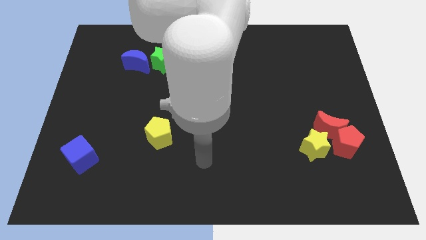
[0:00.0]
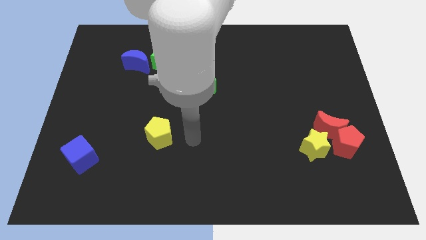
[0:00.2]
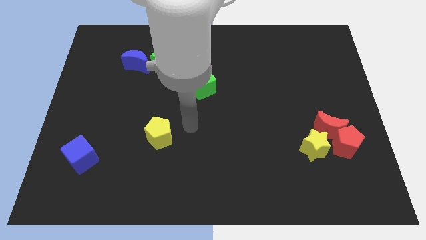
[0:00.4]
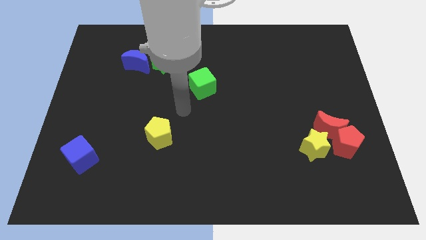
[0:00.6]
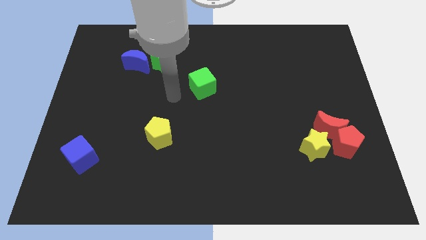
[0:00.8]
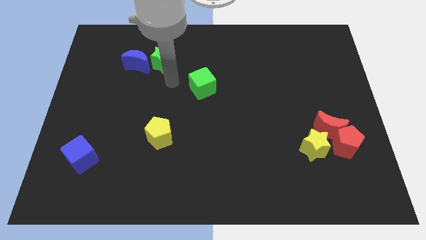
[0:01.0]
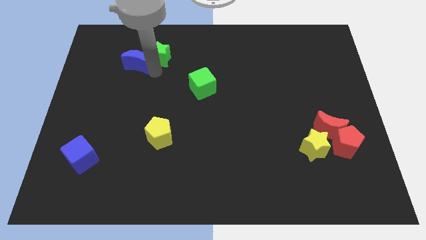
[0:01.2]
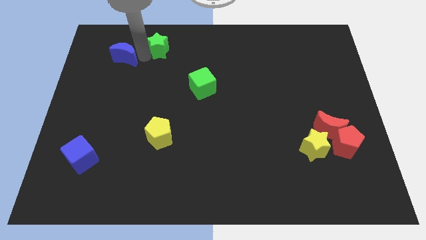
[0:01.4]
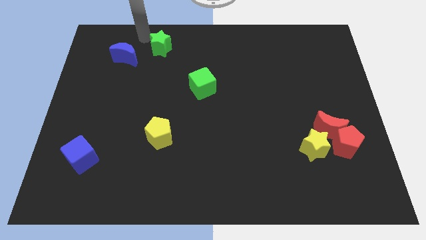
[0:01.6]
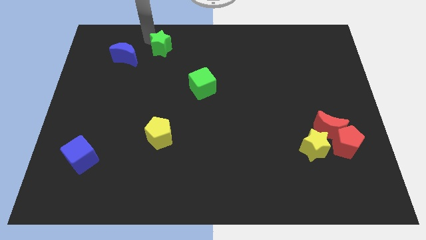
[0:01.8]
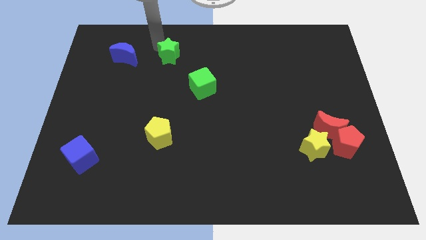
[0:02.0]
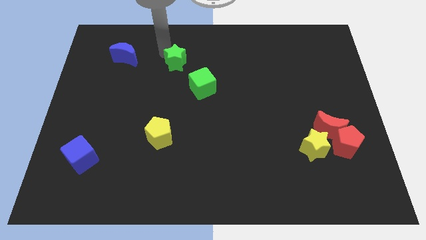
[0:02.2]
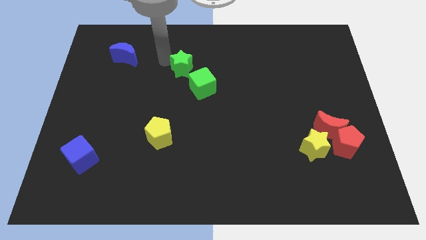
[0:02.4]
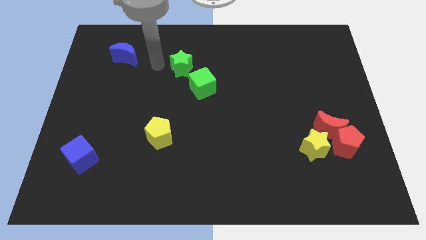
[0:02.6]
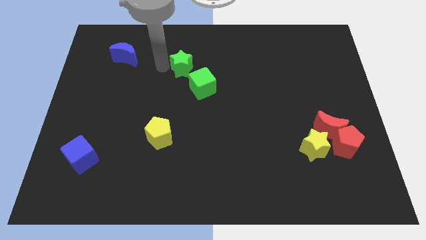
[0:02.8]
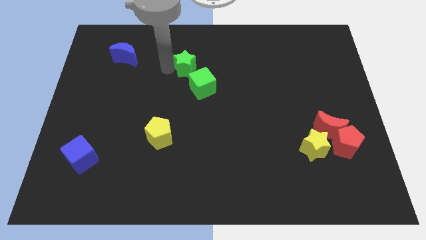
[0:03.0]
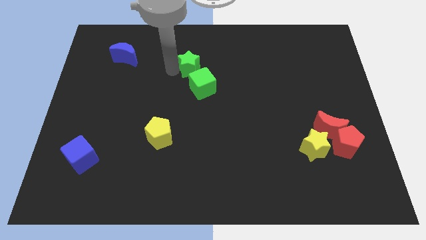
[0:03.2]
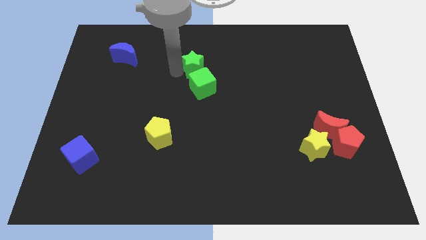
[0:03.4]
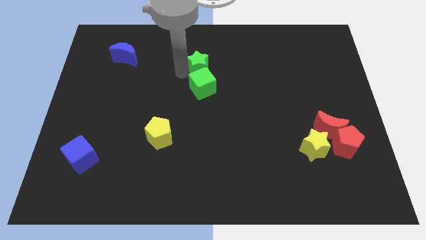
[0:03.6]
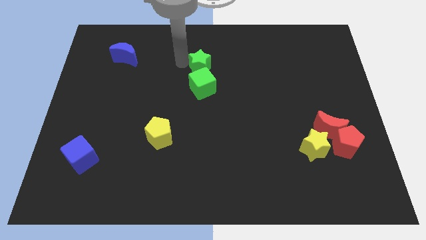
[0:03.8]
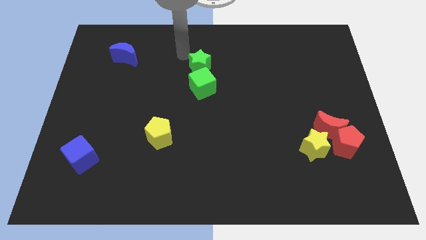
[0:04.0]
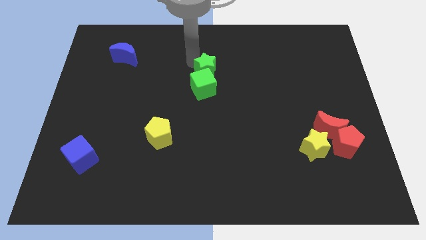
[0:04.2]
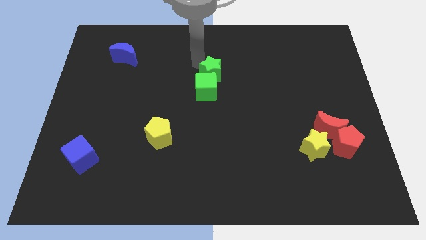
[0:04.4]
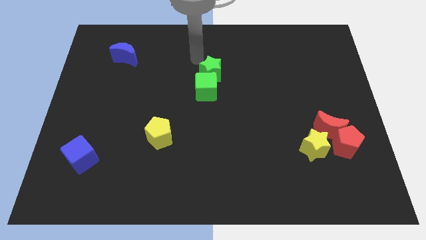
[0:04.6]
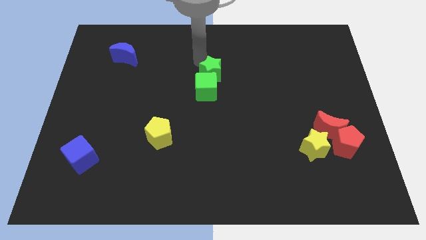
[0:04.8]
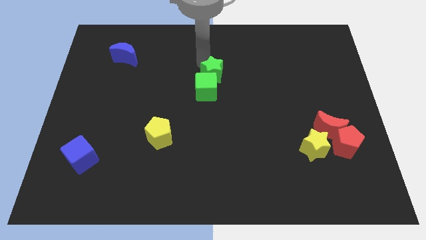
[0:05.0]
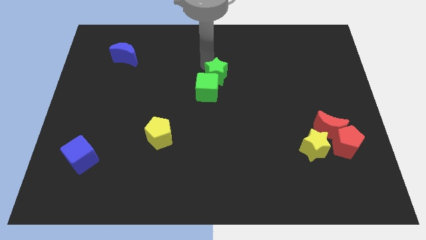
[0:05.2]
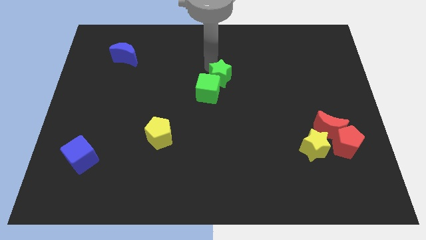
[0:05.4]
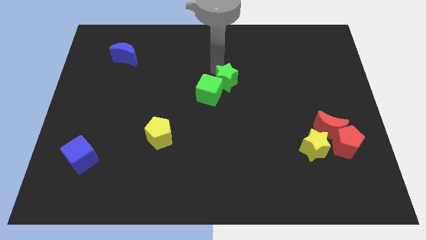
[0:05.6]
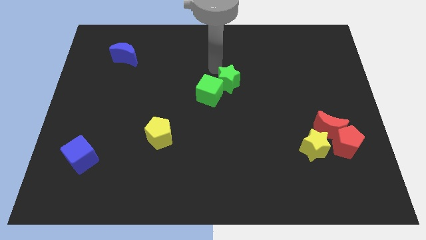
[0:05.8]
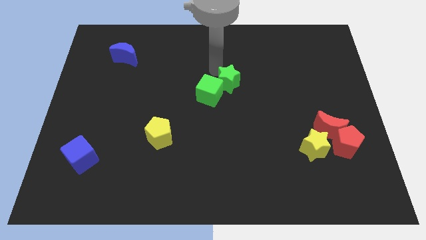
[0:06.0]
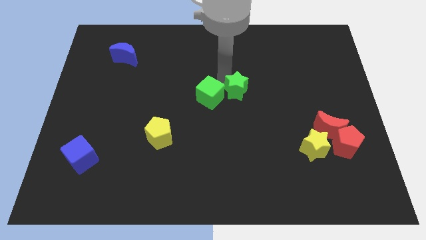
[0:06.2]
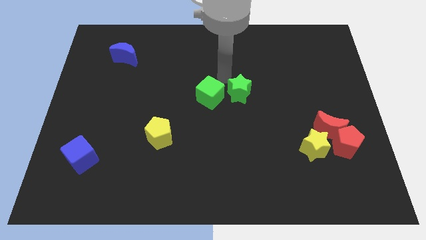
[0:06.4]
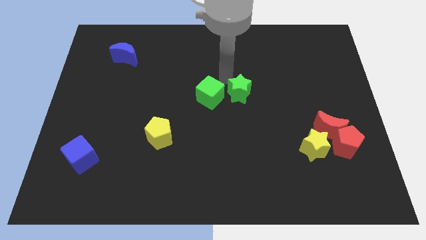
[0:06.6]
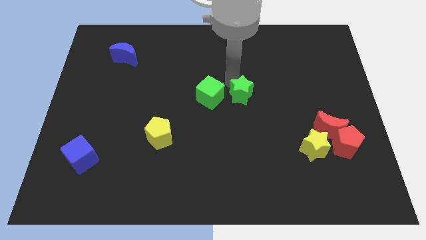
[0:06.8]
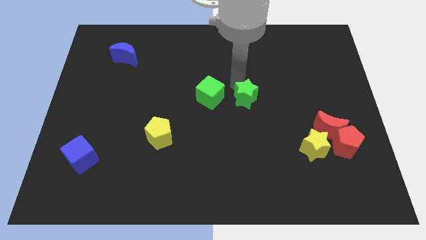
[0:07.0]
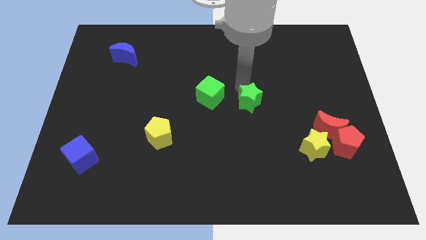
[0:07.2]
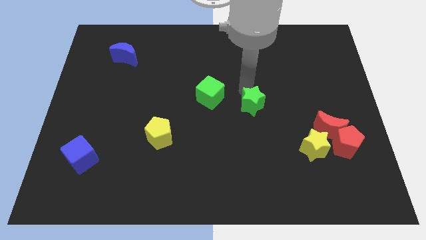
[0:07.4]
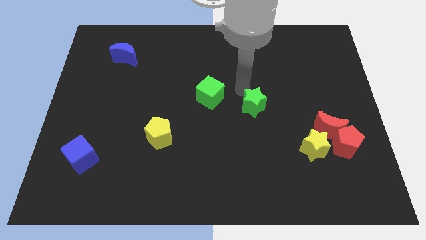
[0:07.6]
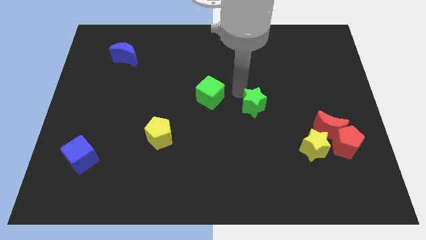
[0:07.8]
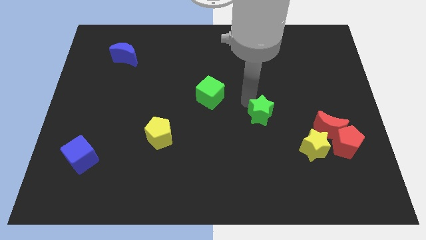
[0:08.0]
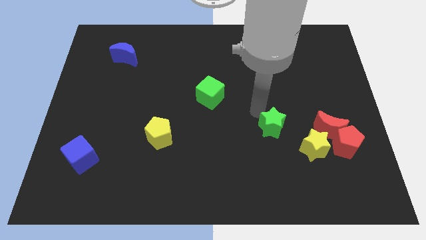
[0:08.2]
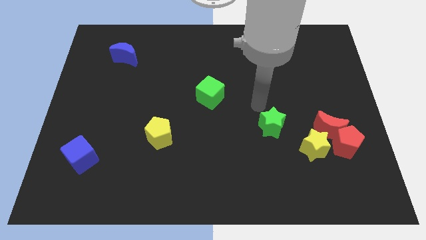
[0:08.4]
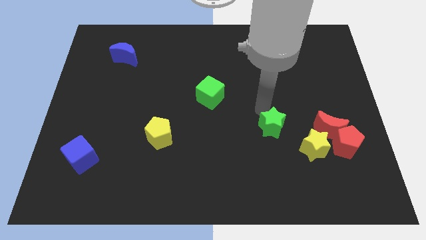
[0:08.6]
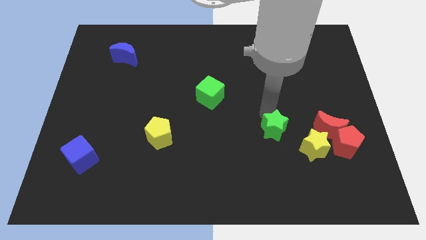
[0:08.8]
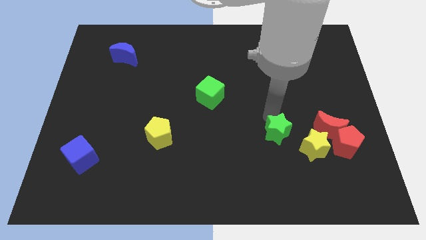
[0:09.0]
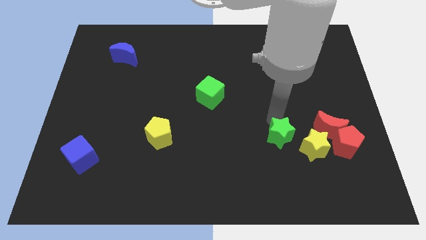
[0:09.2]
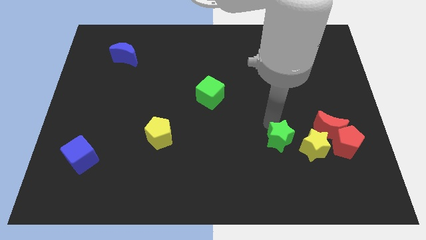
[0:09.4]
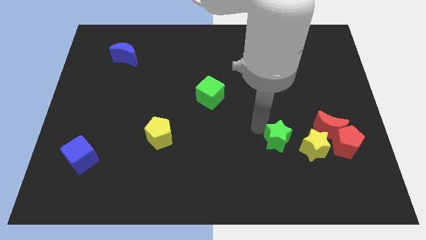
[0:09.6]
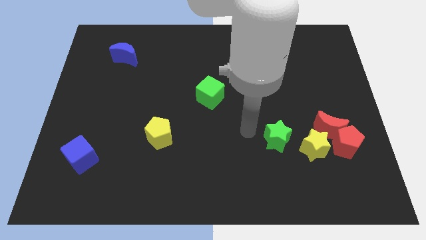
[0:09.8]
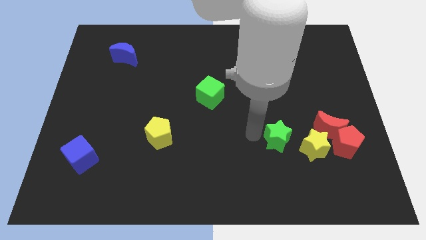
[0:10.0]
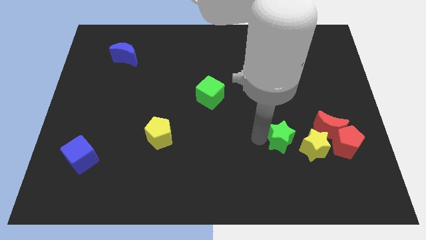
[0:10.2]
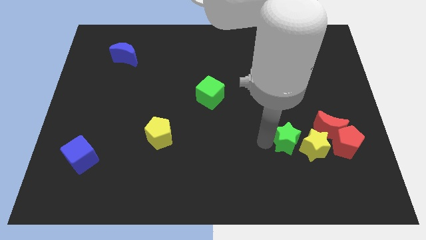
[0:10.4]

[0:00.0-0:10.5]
slide the green star to the bottom left side of the red moon

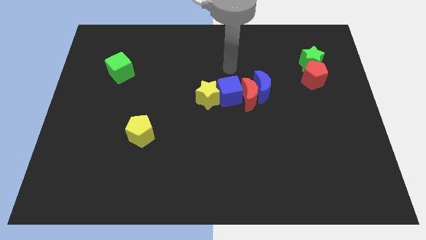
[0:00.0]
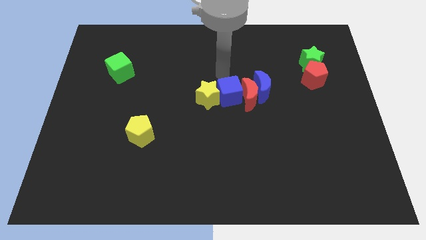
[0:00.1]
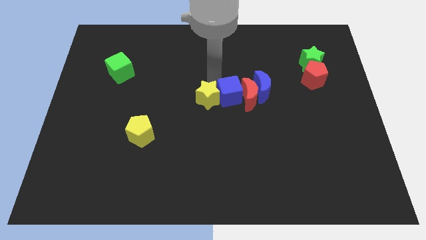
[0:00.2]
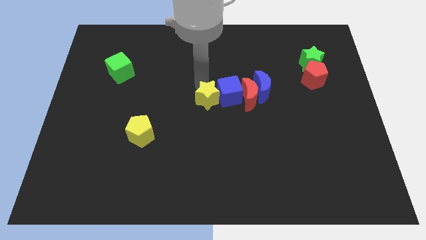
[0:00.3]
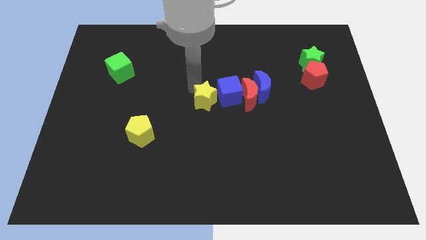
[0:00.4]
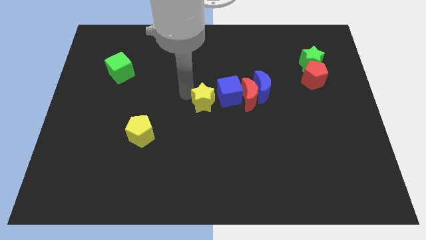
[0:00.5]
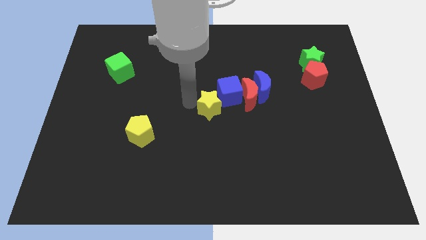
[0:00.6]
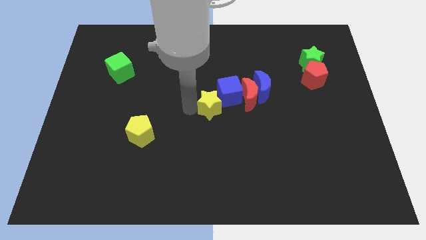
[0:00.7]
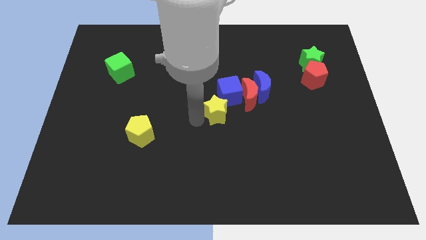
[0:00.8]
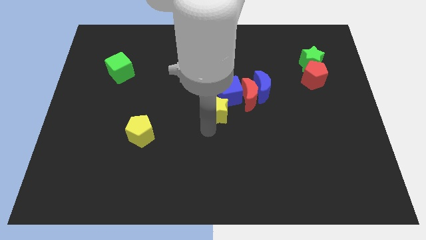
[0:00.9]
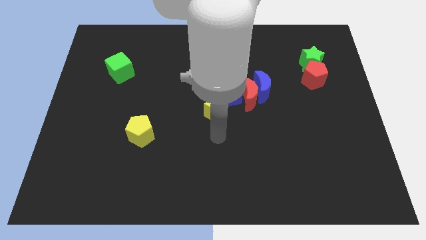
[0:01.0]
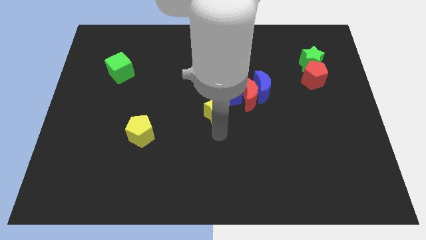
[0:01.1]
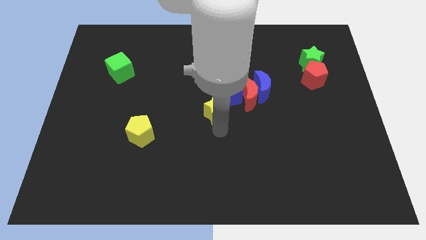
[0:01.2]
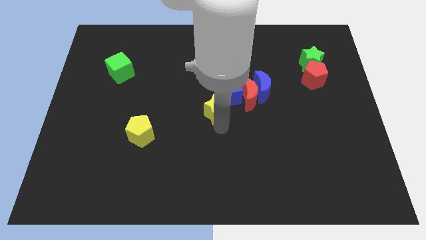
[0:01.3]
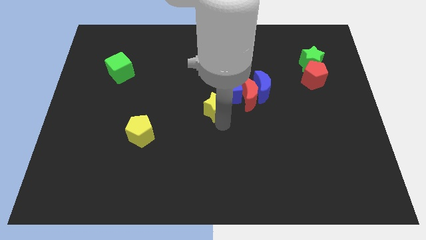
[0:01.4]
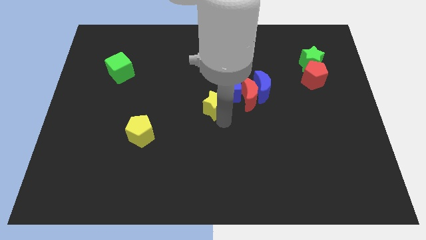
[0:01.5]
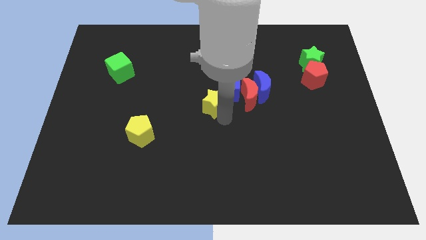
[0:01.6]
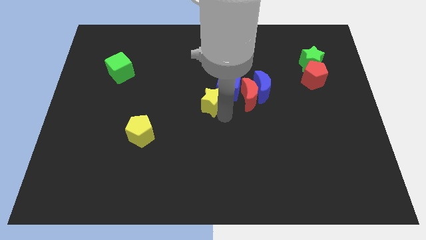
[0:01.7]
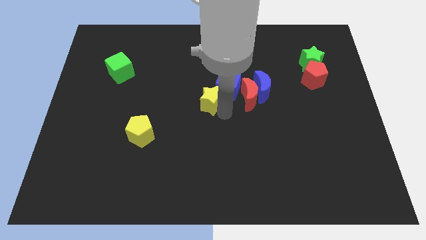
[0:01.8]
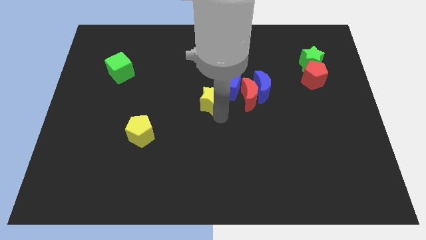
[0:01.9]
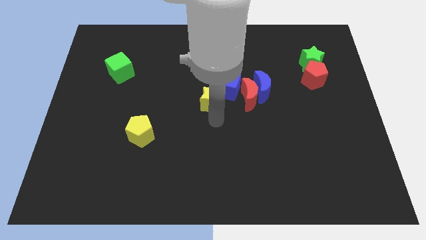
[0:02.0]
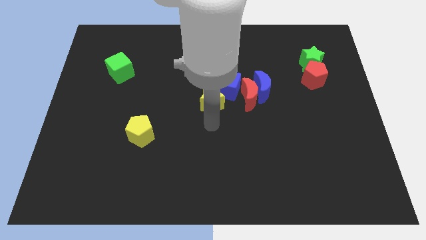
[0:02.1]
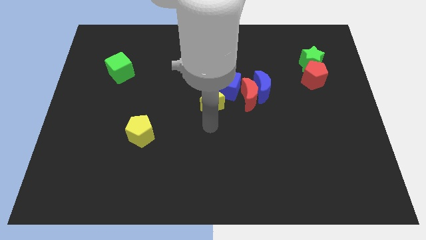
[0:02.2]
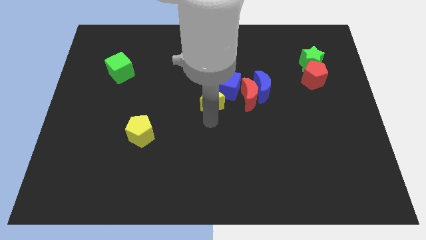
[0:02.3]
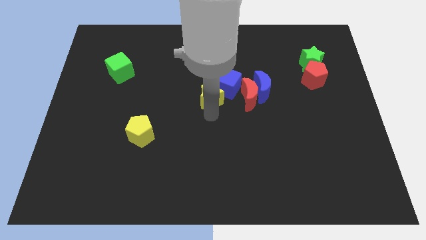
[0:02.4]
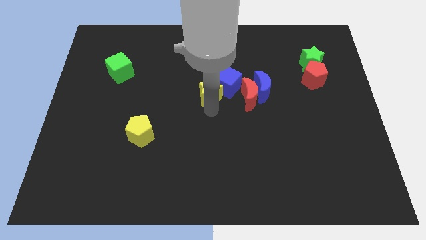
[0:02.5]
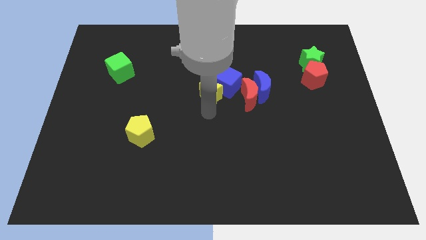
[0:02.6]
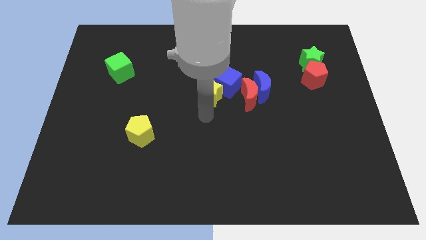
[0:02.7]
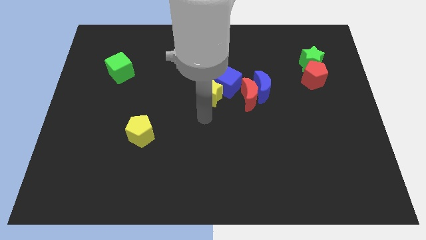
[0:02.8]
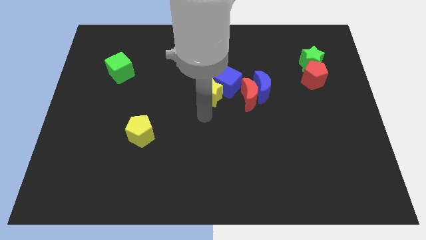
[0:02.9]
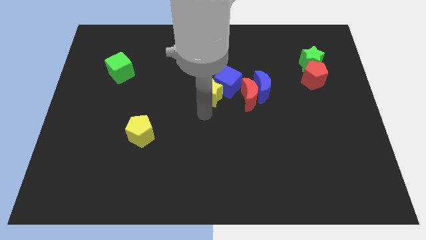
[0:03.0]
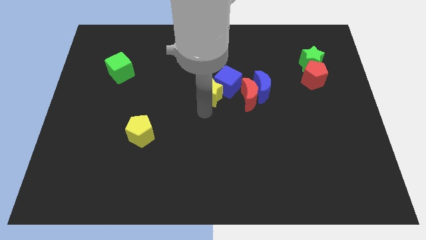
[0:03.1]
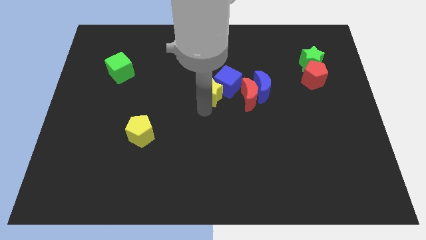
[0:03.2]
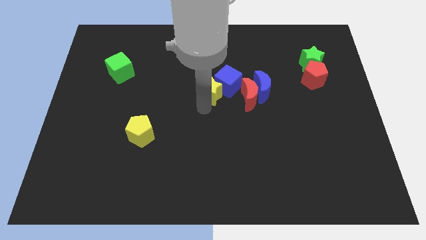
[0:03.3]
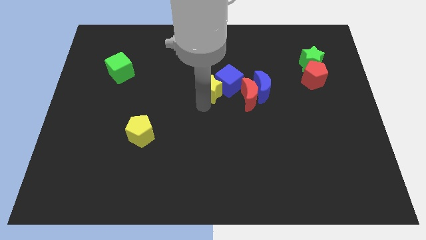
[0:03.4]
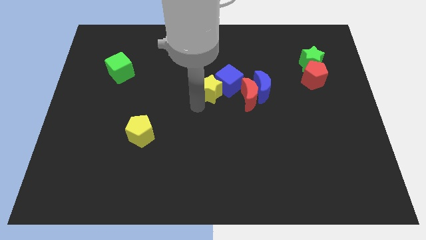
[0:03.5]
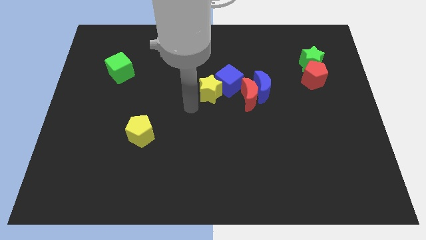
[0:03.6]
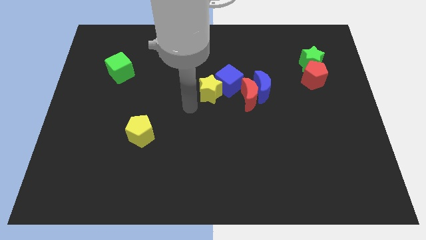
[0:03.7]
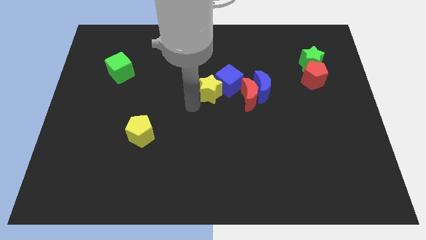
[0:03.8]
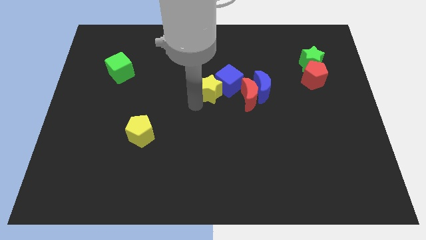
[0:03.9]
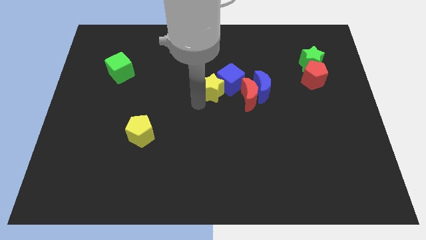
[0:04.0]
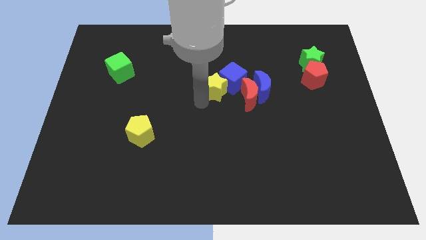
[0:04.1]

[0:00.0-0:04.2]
move the yellow star to the top left side of the red moon
